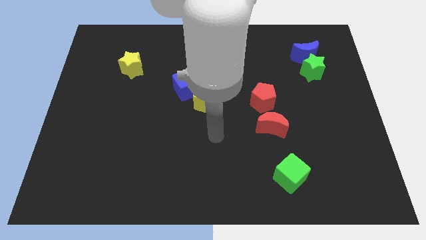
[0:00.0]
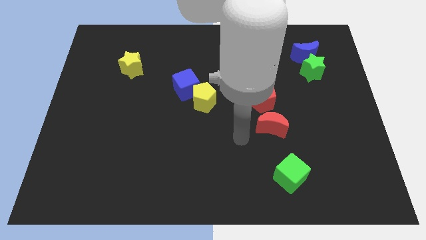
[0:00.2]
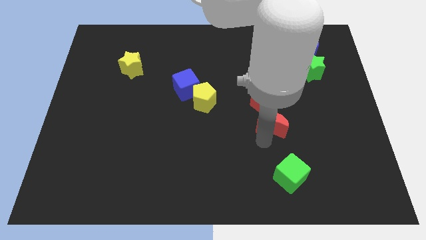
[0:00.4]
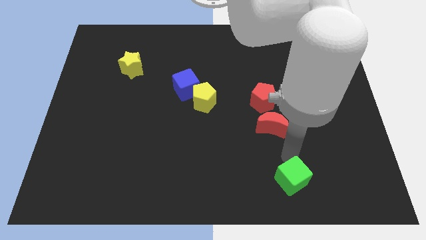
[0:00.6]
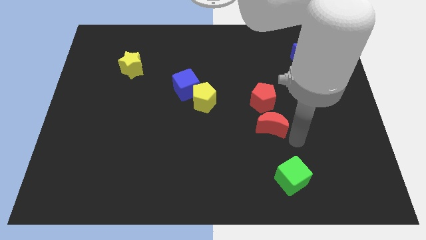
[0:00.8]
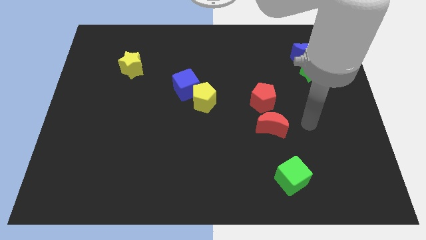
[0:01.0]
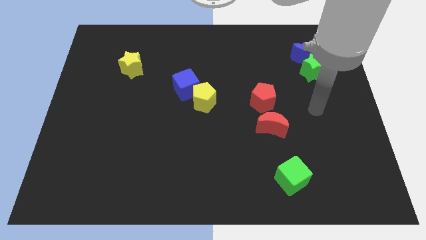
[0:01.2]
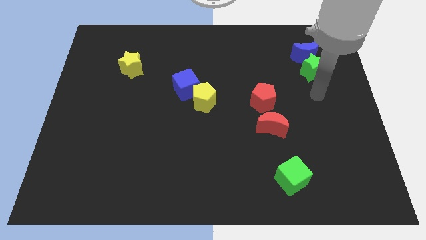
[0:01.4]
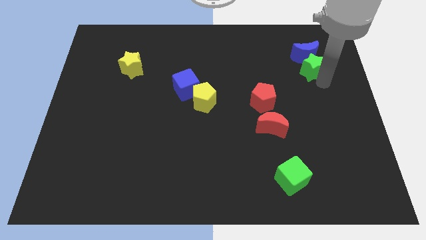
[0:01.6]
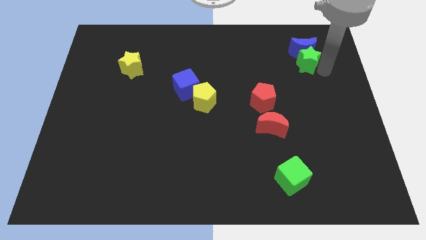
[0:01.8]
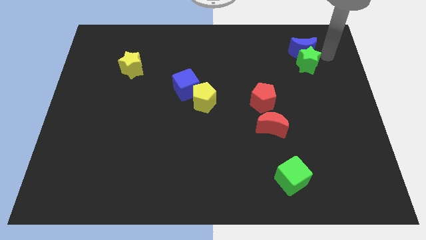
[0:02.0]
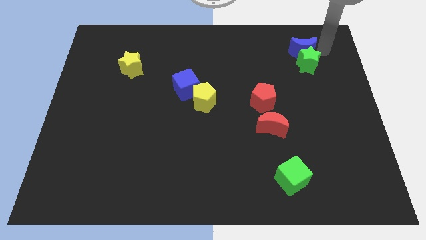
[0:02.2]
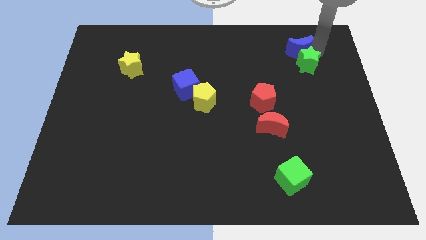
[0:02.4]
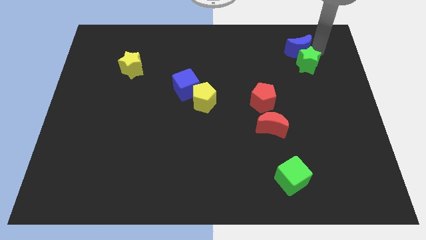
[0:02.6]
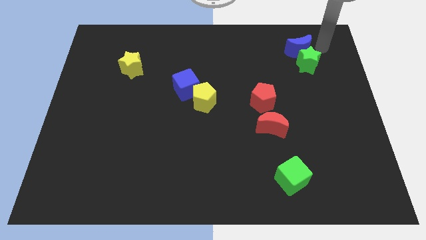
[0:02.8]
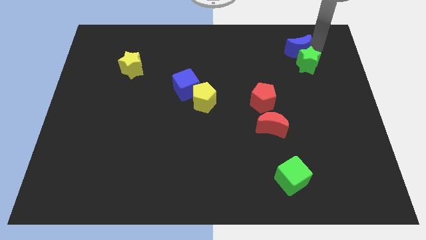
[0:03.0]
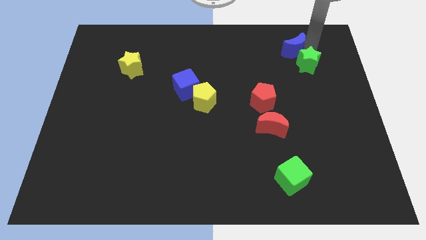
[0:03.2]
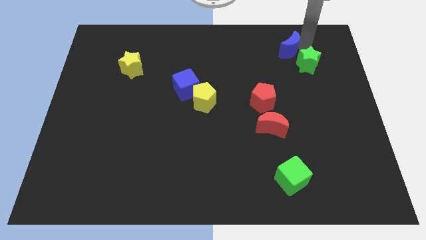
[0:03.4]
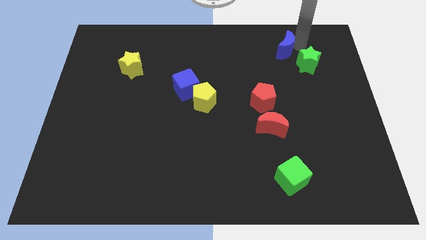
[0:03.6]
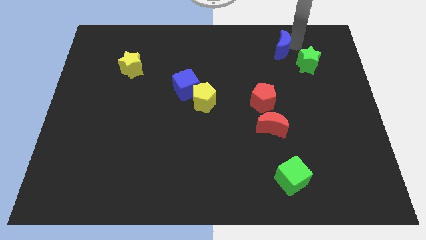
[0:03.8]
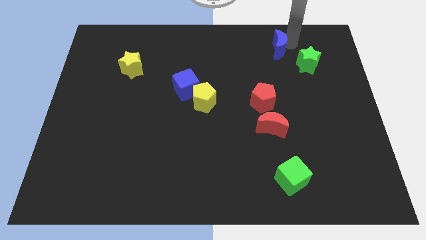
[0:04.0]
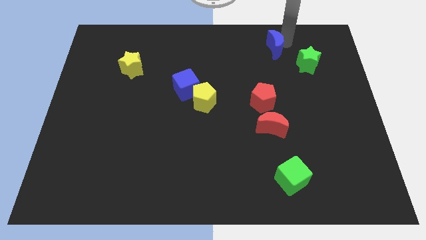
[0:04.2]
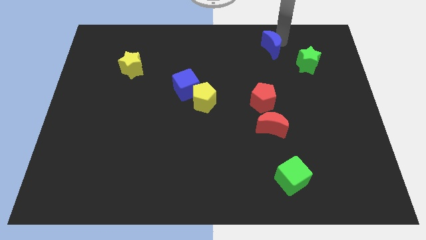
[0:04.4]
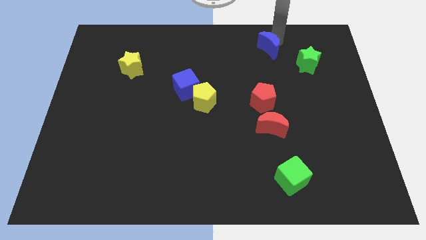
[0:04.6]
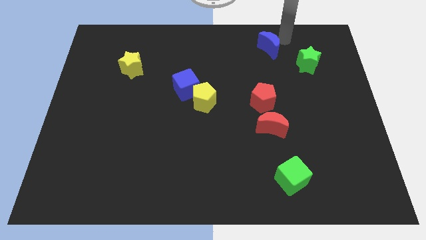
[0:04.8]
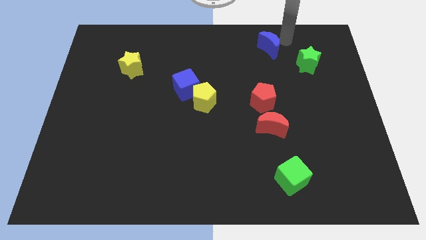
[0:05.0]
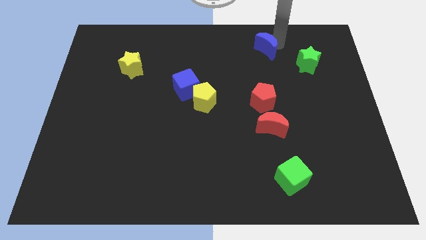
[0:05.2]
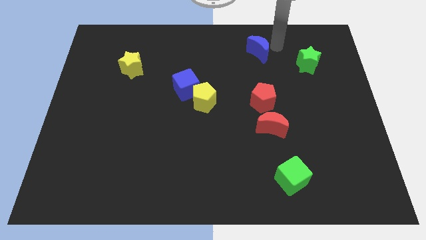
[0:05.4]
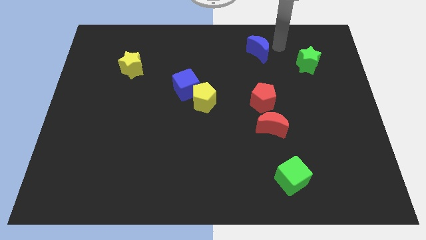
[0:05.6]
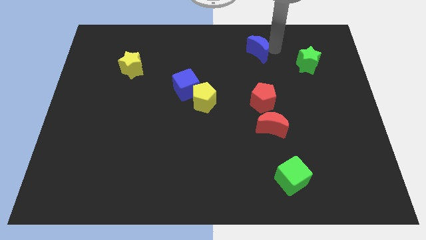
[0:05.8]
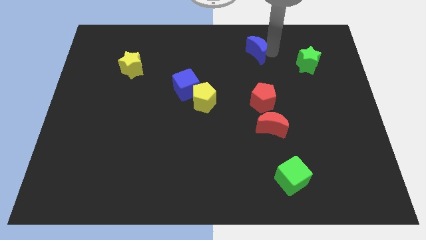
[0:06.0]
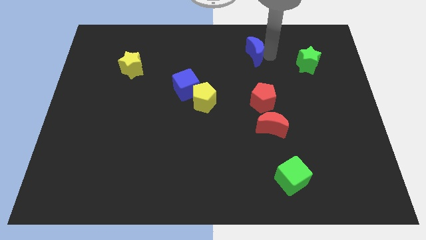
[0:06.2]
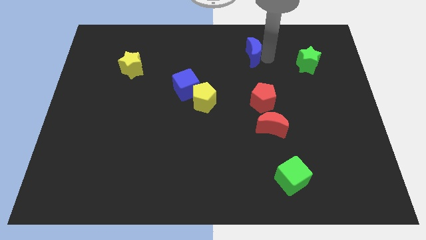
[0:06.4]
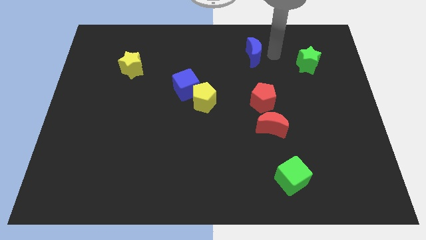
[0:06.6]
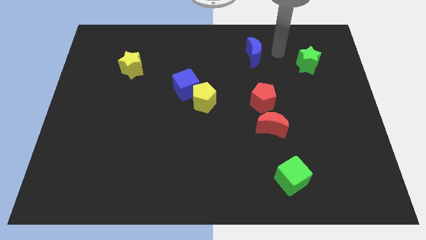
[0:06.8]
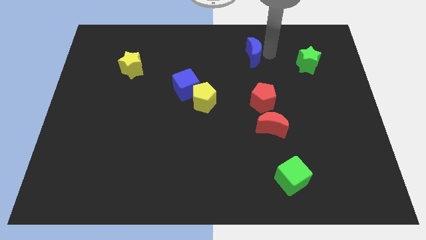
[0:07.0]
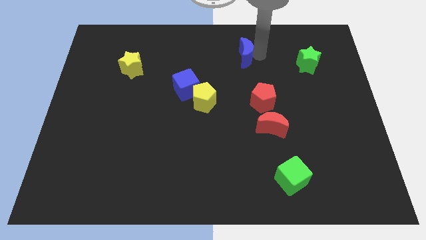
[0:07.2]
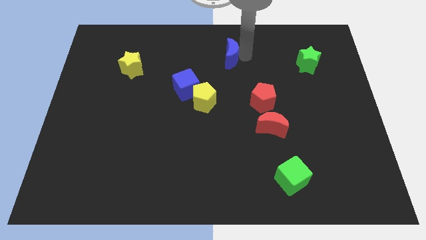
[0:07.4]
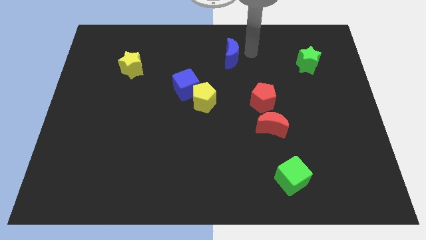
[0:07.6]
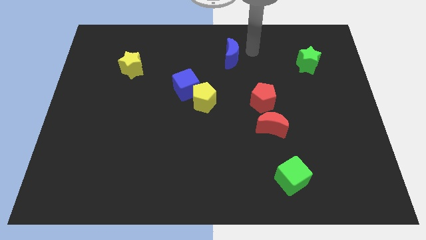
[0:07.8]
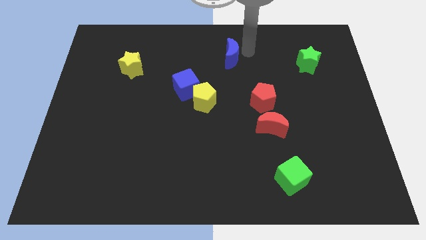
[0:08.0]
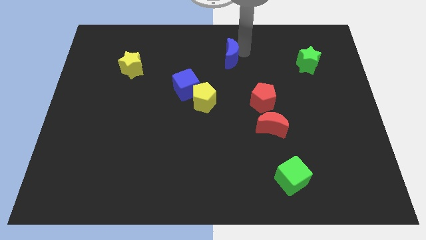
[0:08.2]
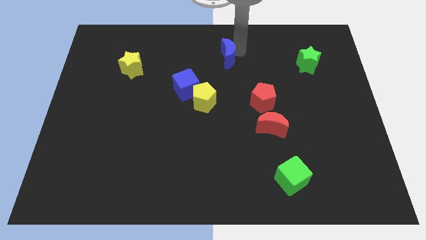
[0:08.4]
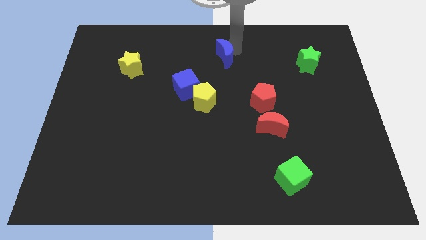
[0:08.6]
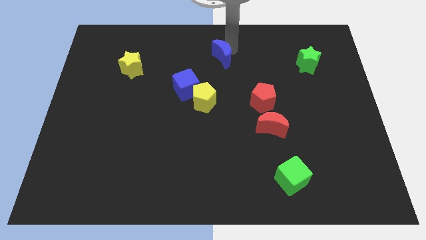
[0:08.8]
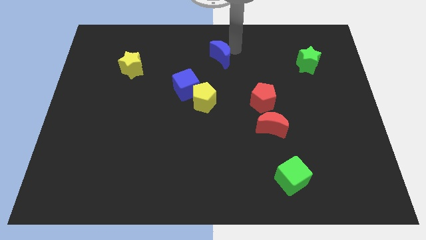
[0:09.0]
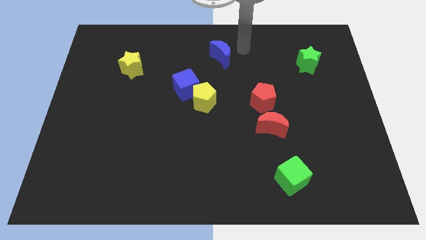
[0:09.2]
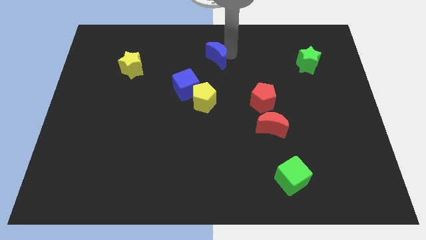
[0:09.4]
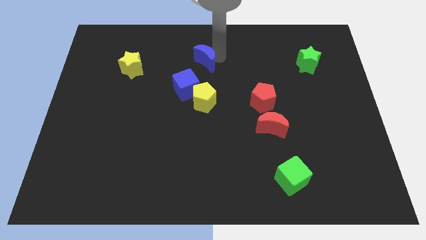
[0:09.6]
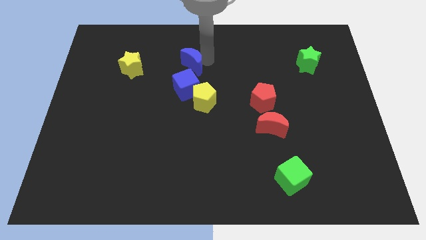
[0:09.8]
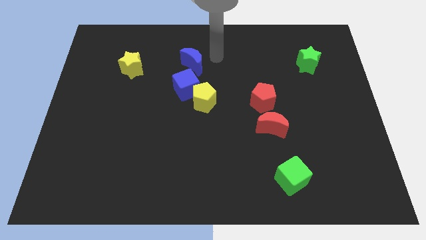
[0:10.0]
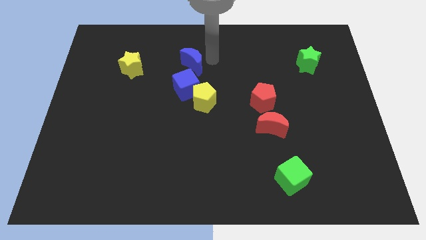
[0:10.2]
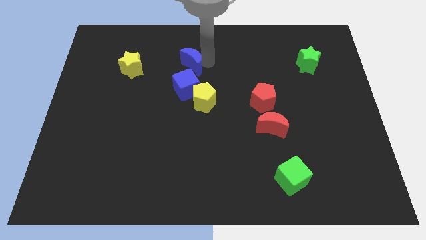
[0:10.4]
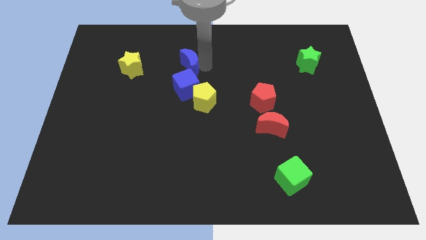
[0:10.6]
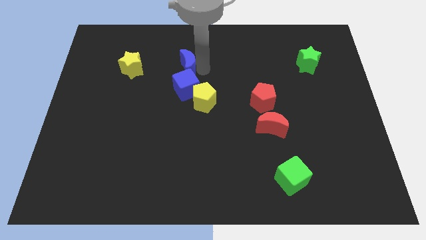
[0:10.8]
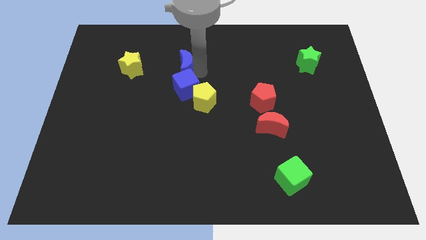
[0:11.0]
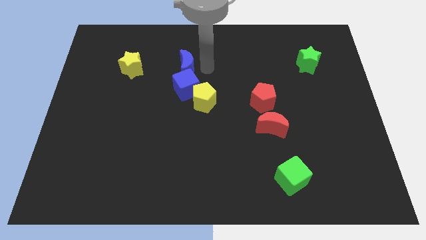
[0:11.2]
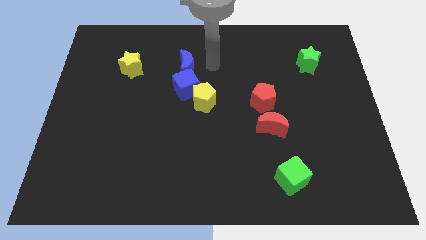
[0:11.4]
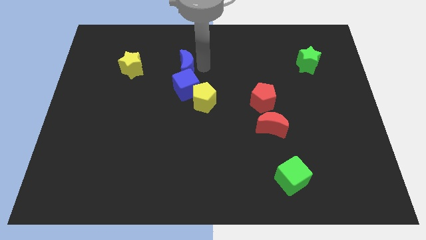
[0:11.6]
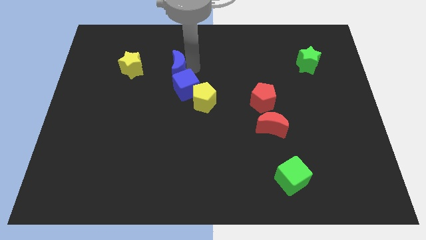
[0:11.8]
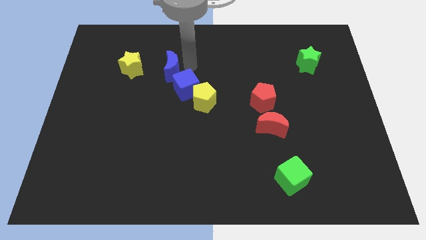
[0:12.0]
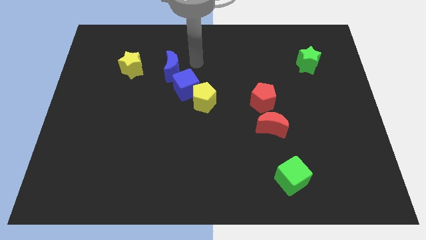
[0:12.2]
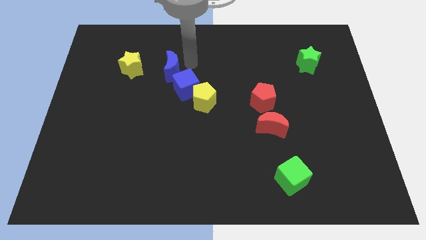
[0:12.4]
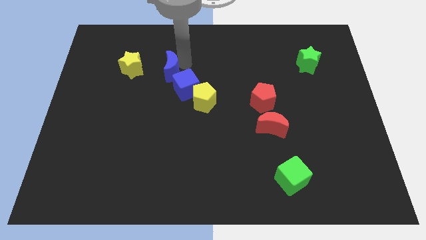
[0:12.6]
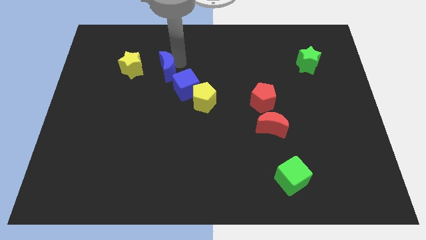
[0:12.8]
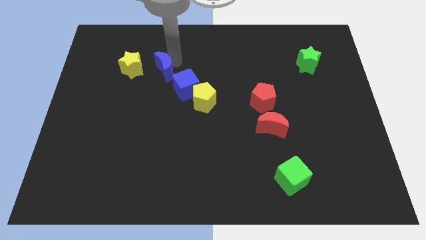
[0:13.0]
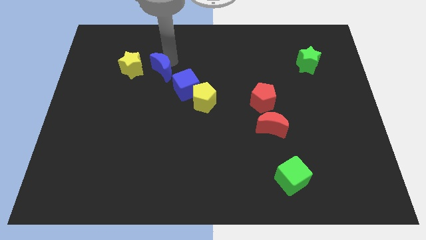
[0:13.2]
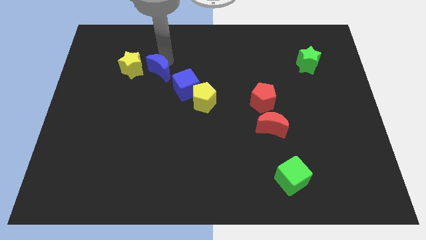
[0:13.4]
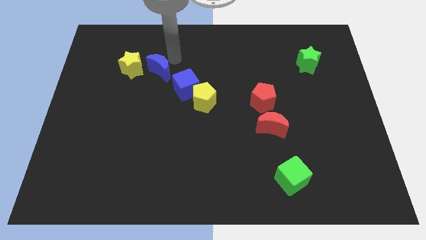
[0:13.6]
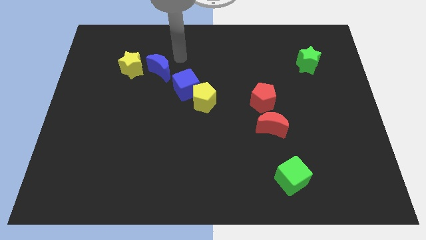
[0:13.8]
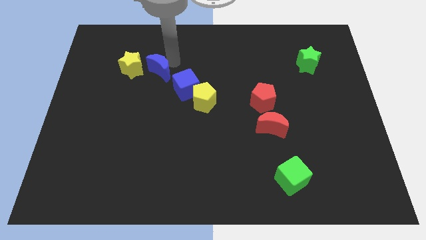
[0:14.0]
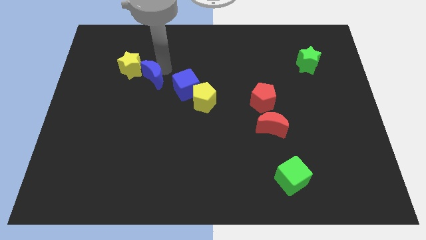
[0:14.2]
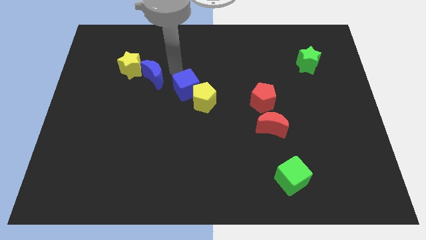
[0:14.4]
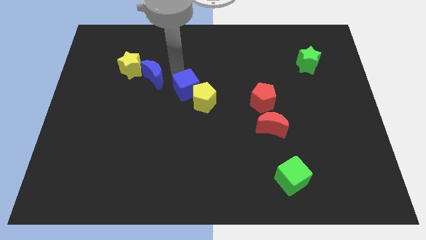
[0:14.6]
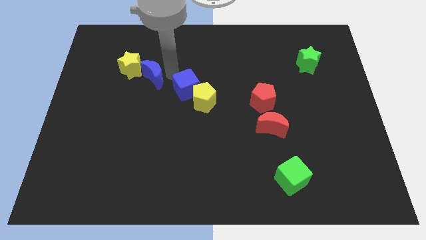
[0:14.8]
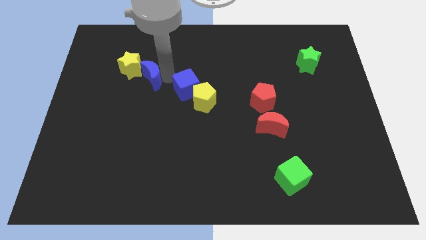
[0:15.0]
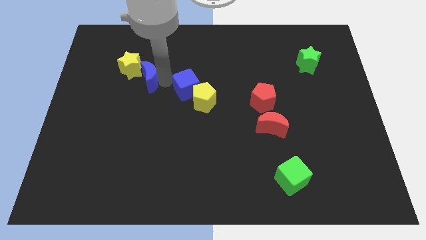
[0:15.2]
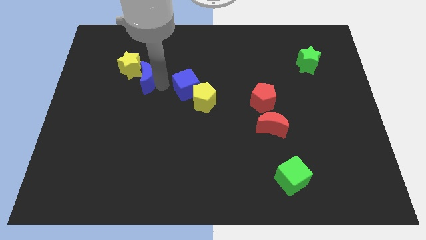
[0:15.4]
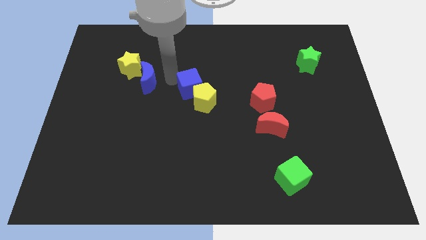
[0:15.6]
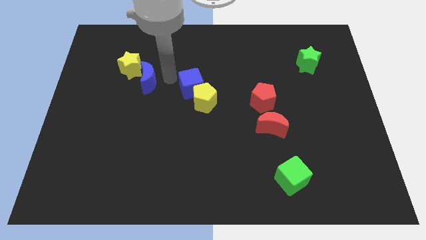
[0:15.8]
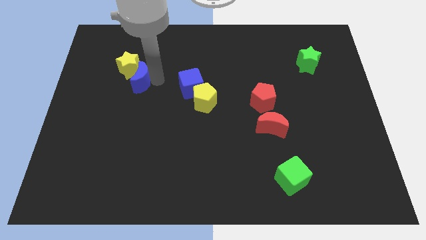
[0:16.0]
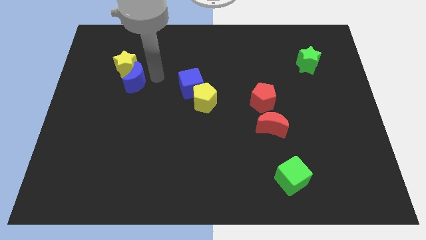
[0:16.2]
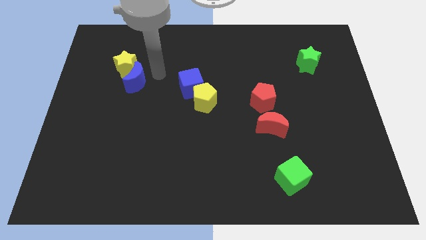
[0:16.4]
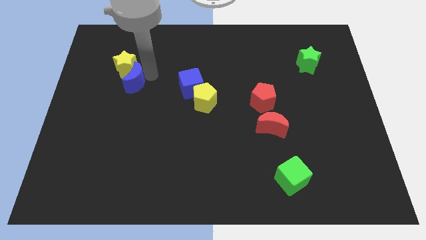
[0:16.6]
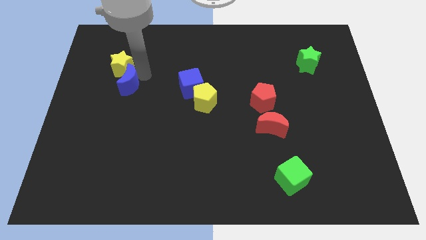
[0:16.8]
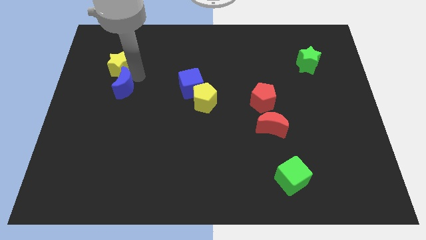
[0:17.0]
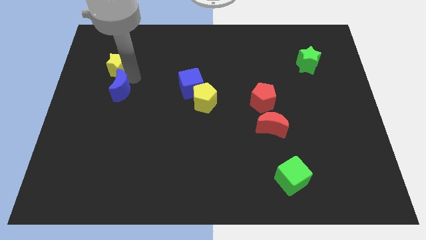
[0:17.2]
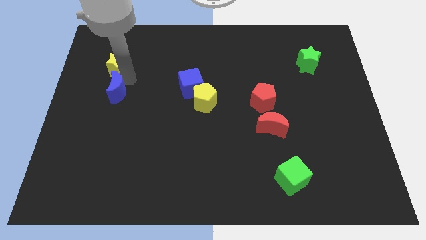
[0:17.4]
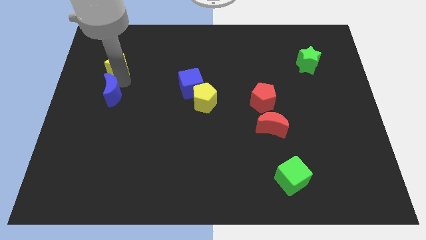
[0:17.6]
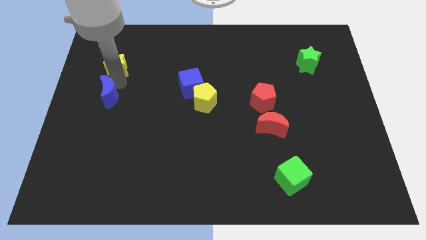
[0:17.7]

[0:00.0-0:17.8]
put the blue moon to the left side
